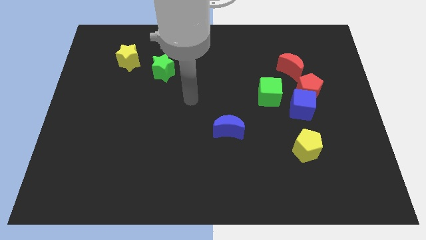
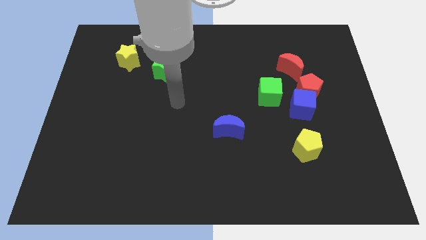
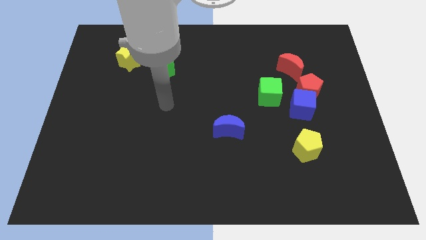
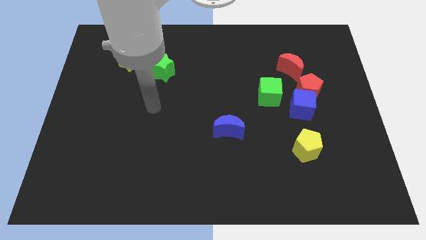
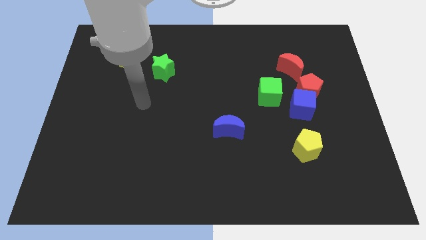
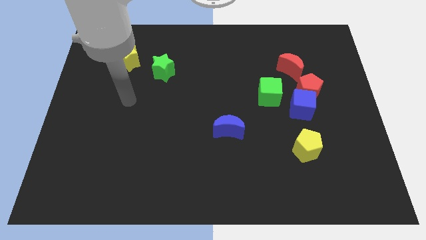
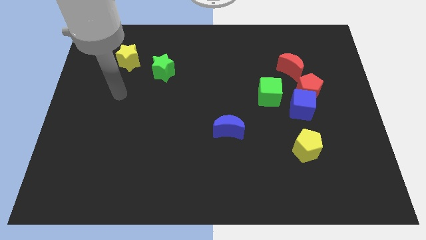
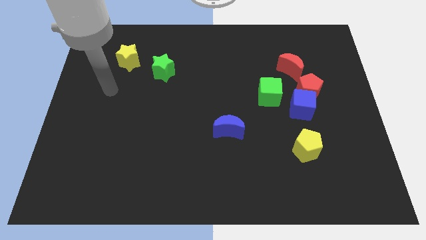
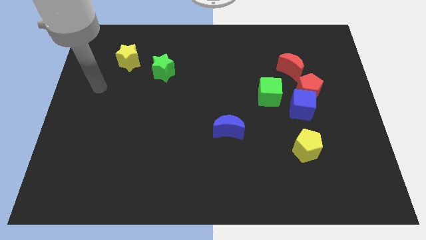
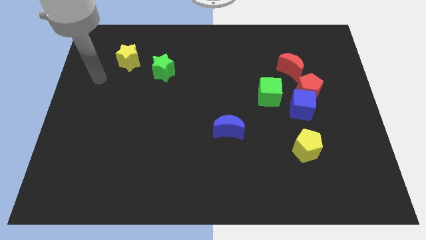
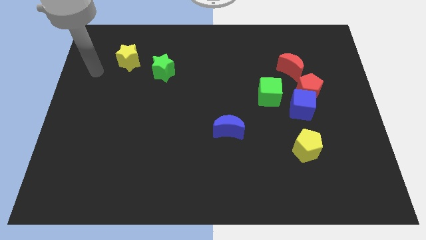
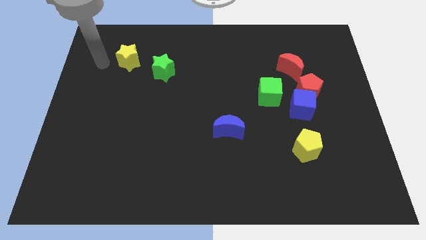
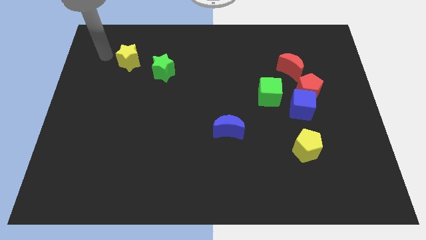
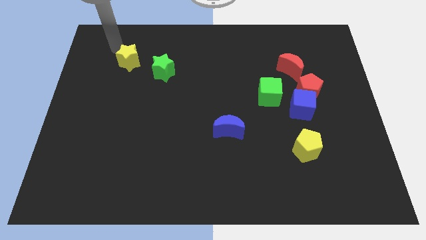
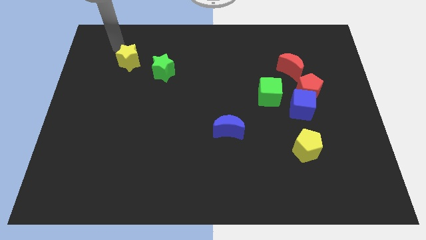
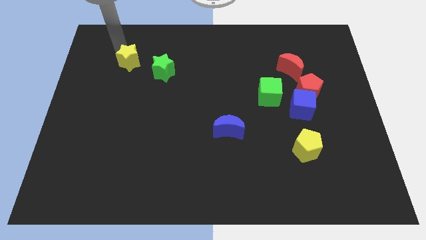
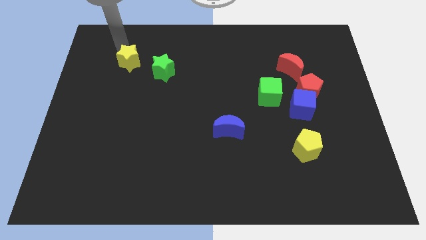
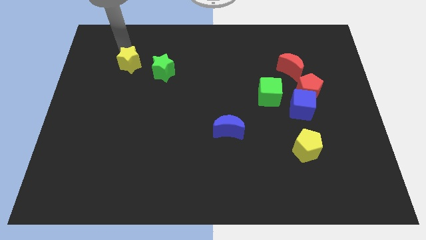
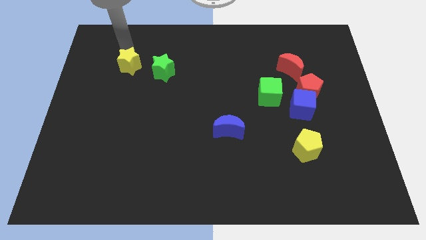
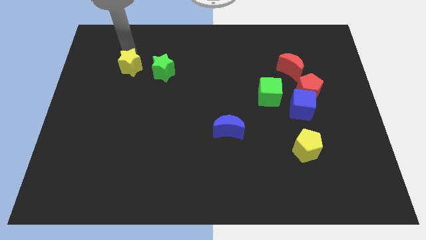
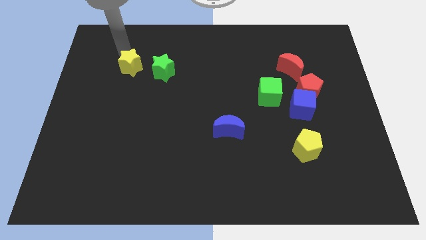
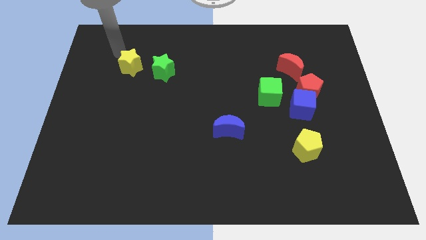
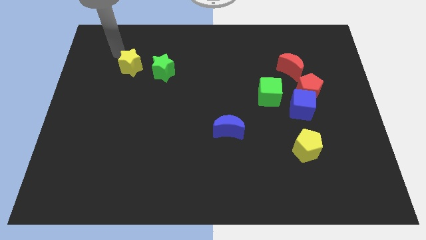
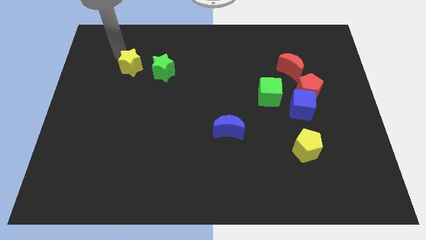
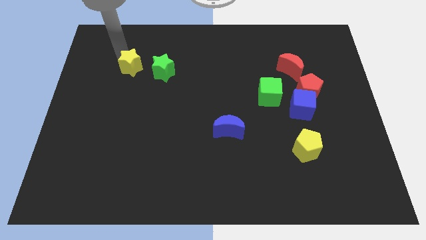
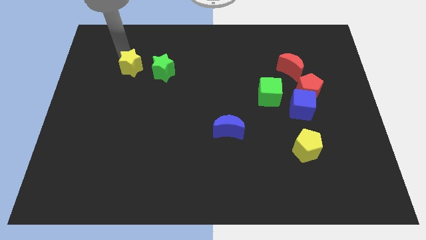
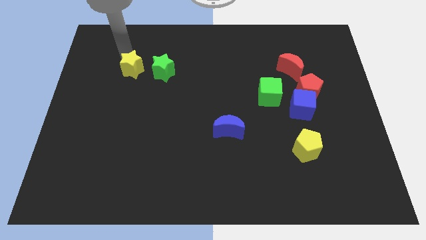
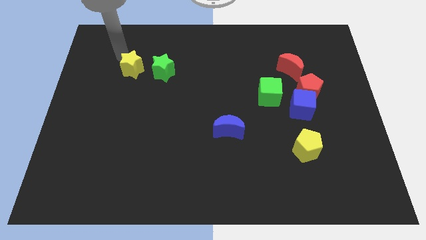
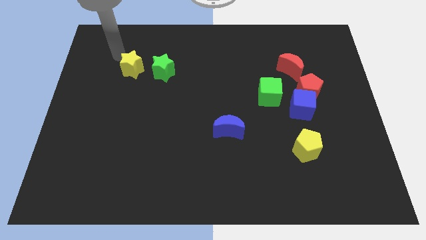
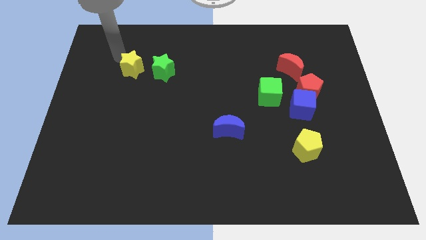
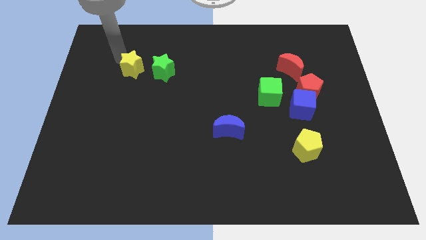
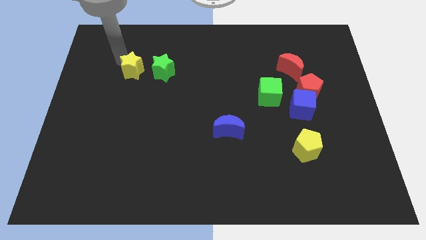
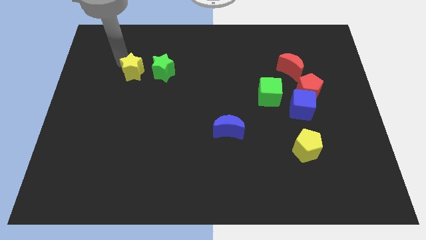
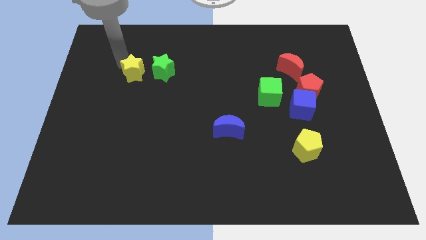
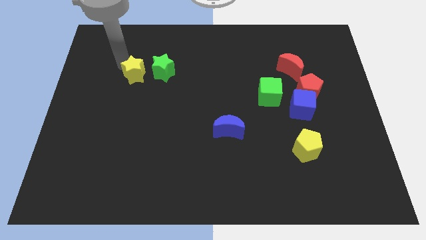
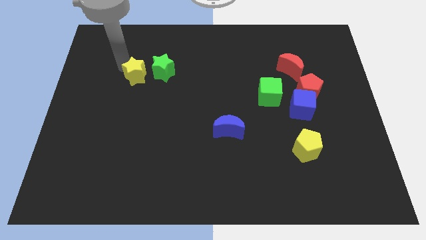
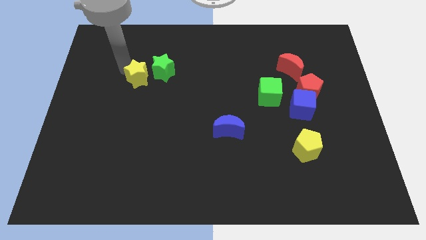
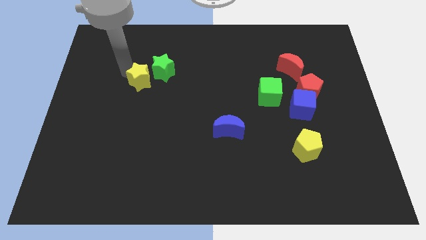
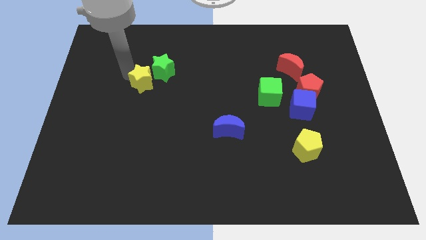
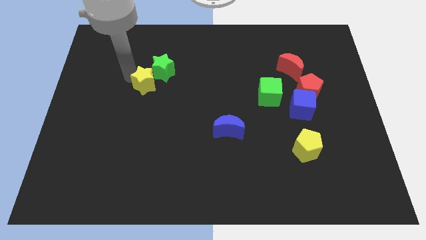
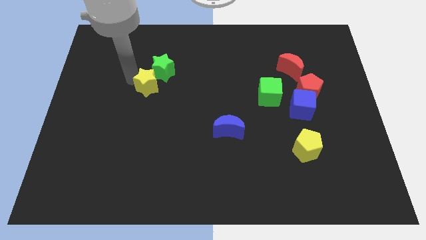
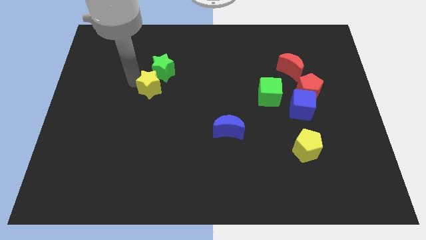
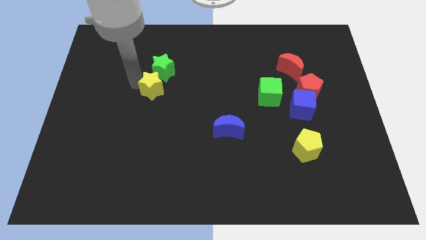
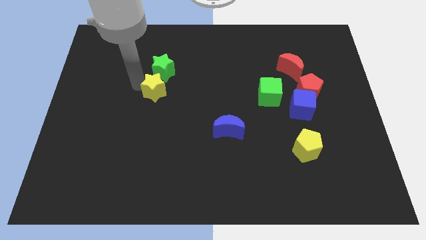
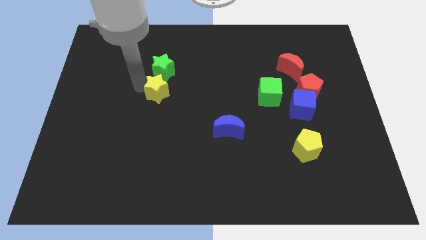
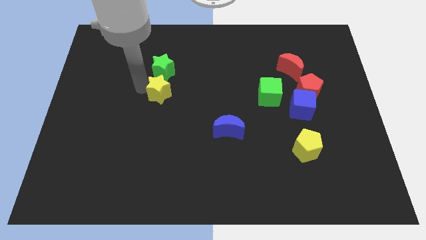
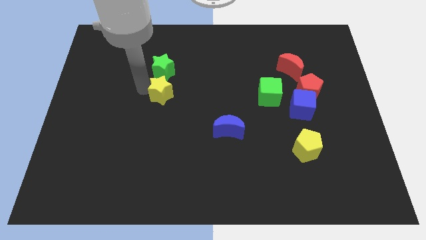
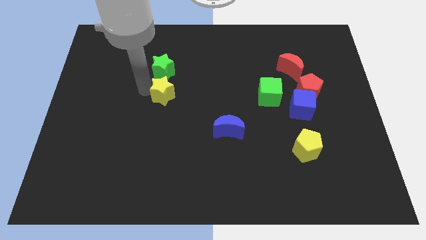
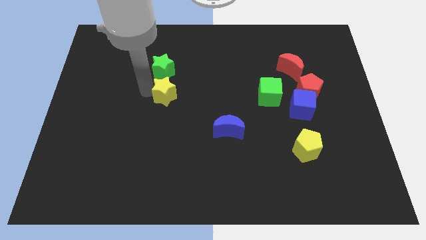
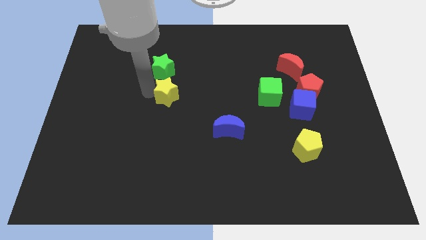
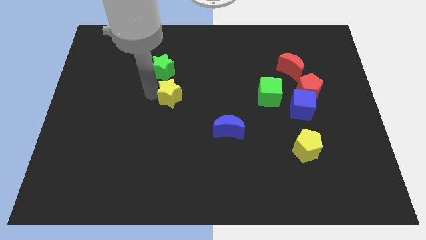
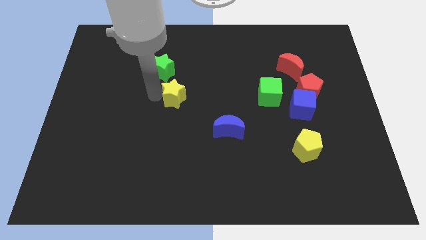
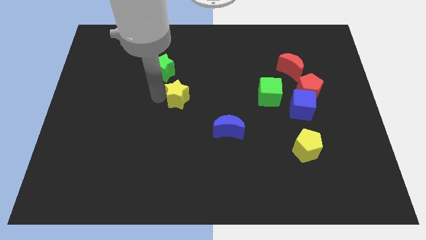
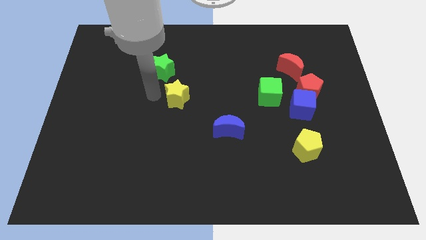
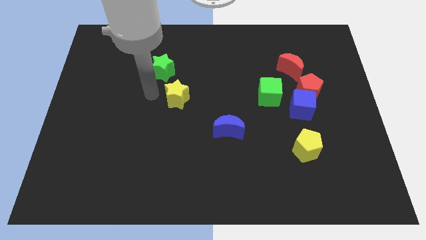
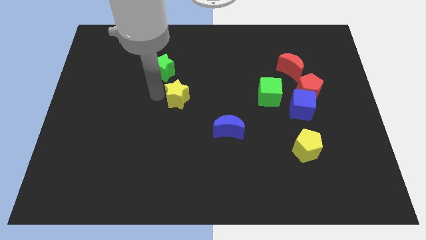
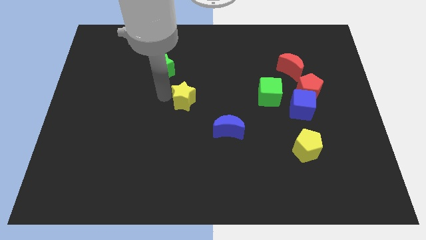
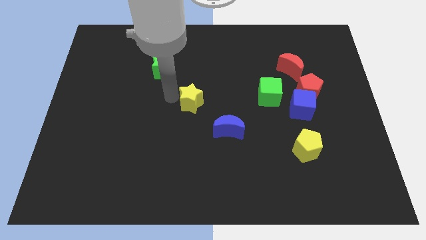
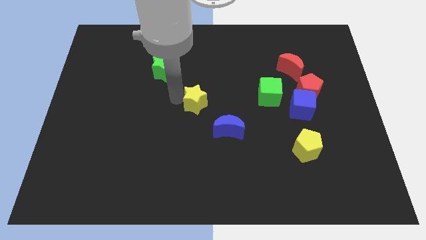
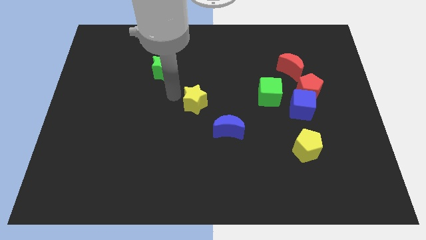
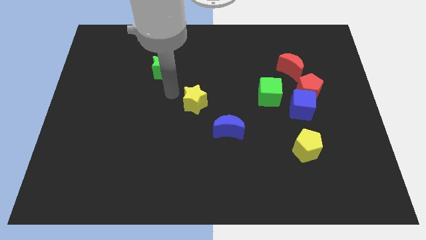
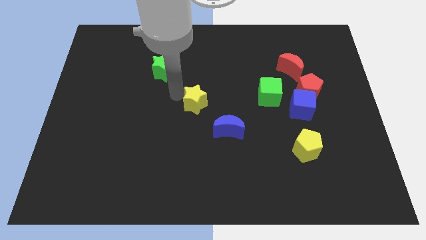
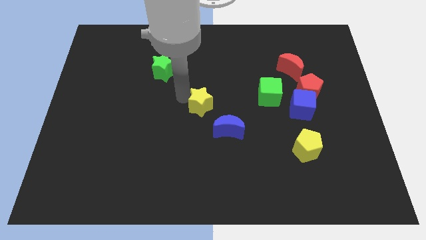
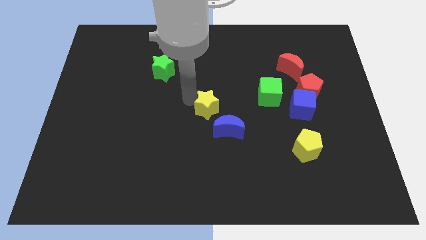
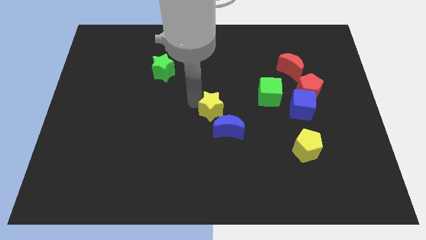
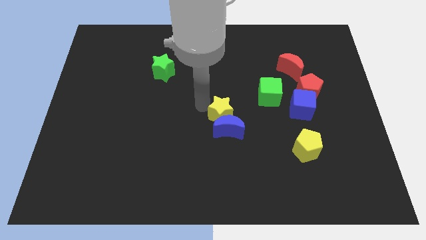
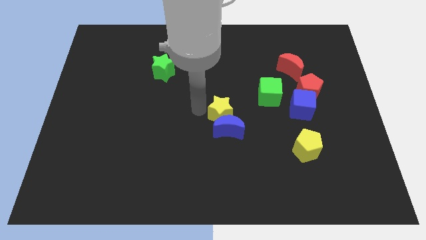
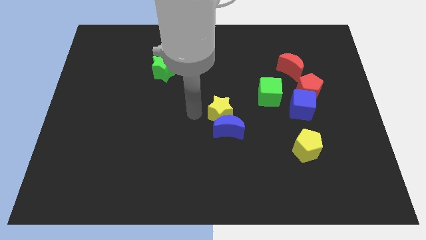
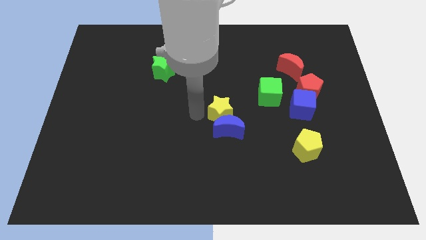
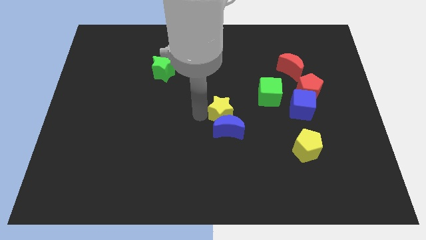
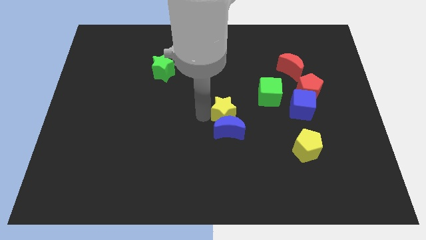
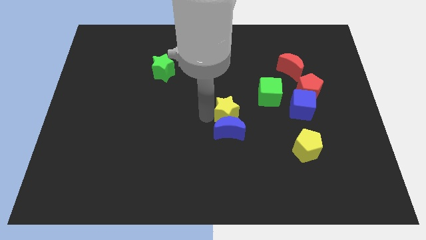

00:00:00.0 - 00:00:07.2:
put the yellow star to the bottom left of the green cube
